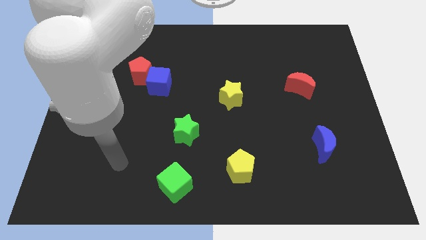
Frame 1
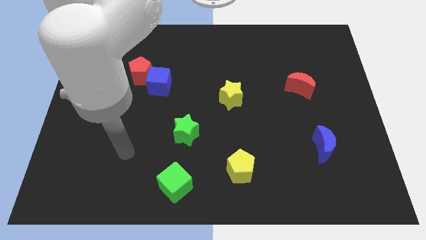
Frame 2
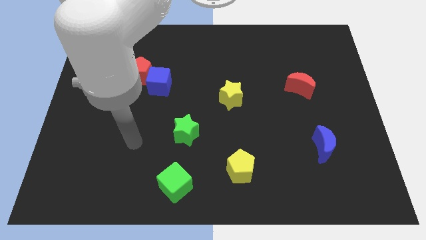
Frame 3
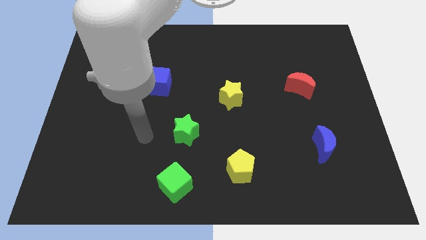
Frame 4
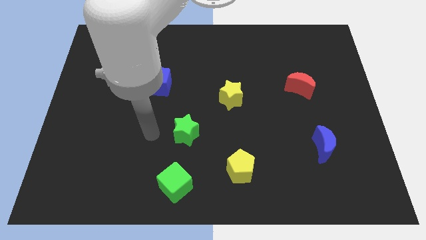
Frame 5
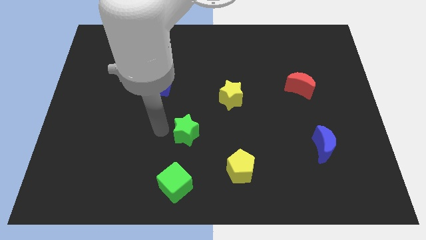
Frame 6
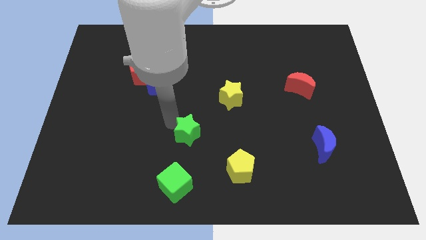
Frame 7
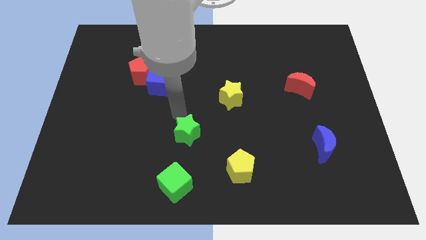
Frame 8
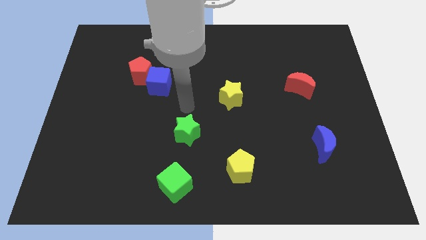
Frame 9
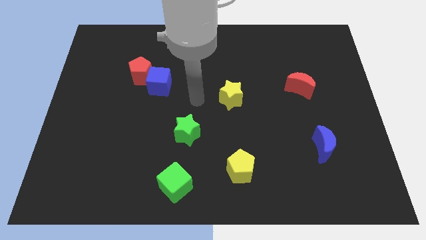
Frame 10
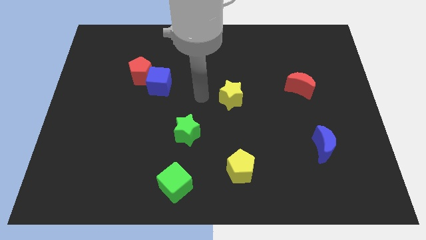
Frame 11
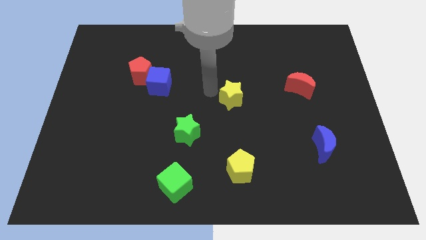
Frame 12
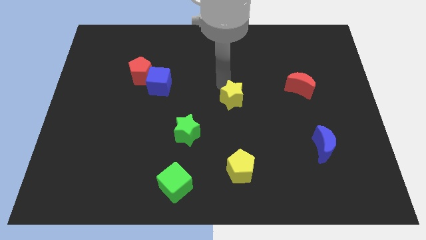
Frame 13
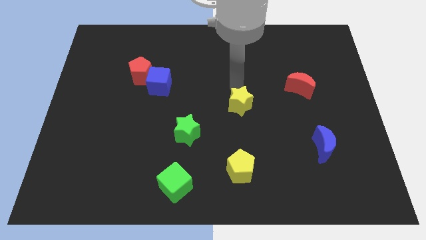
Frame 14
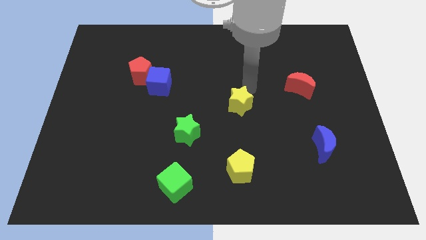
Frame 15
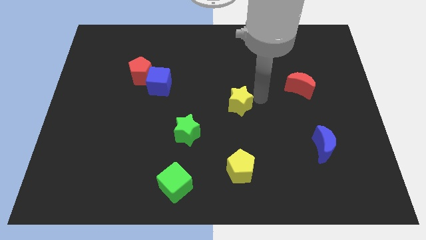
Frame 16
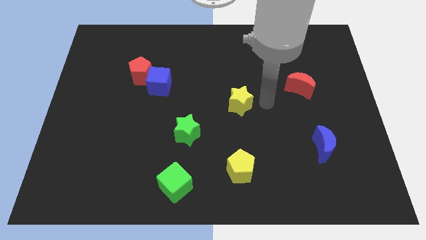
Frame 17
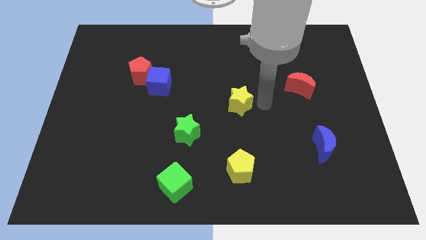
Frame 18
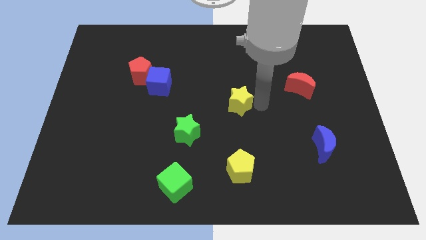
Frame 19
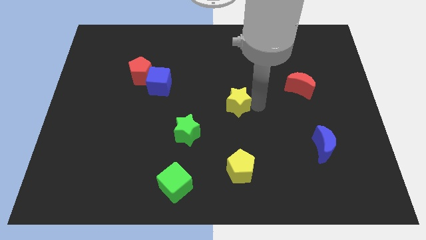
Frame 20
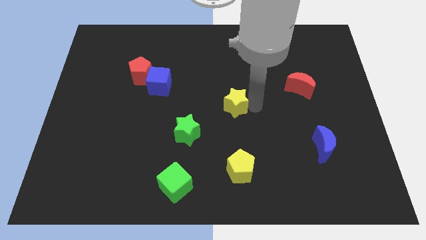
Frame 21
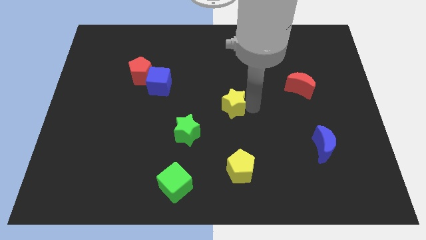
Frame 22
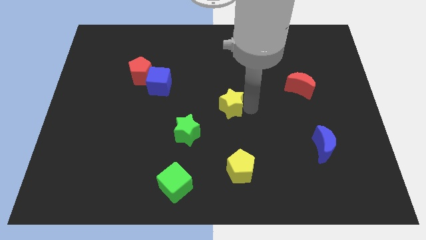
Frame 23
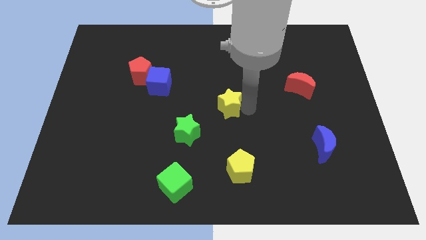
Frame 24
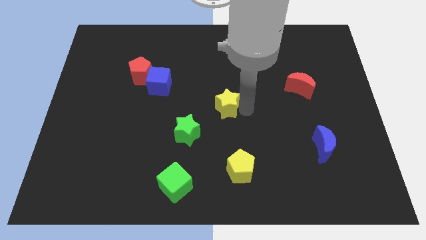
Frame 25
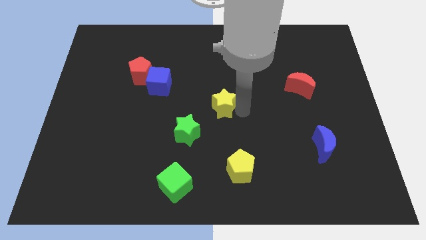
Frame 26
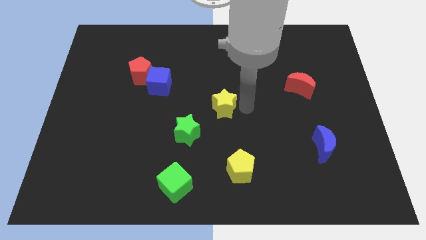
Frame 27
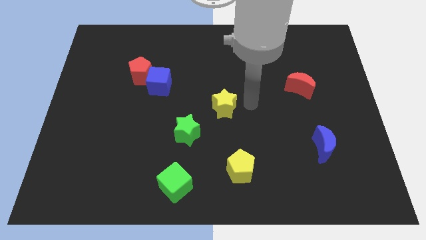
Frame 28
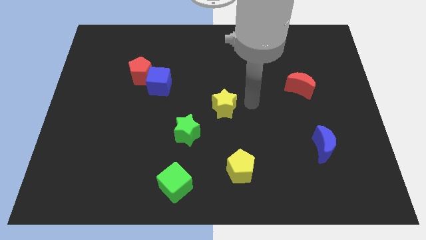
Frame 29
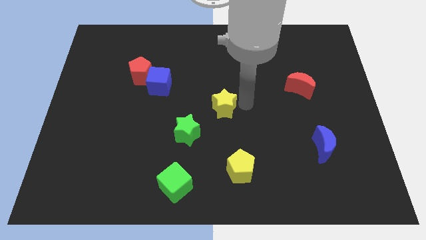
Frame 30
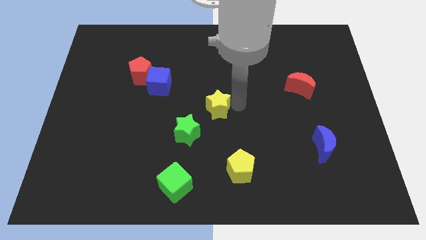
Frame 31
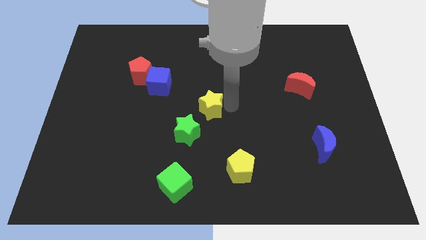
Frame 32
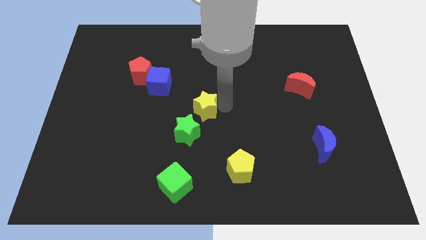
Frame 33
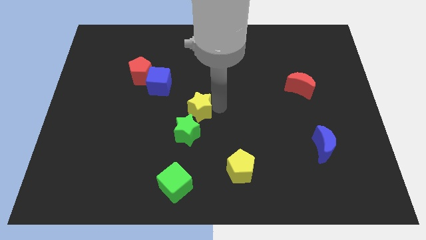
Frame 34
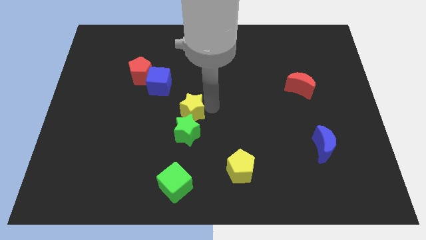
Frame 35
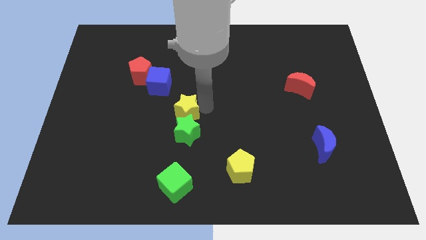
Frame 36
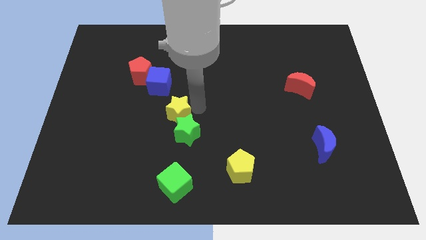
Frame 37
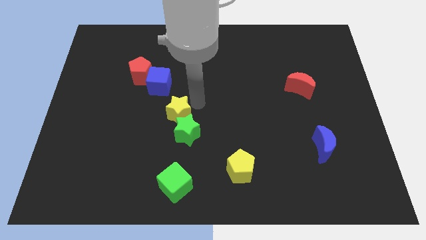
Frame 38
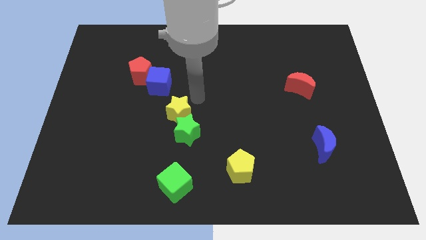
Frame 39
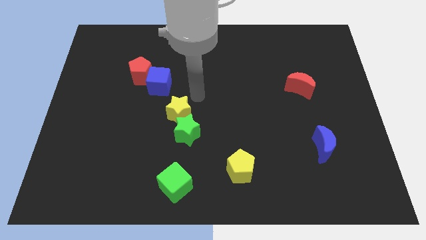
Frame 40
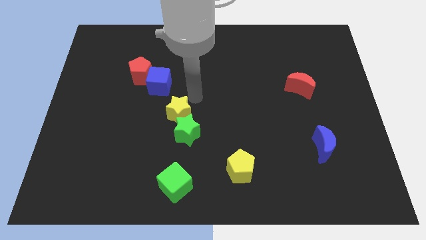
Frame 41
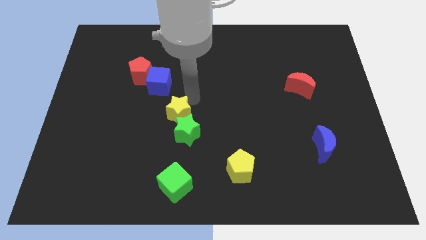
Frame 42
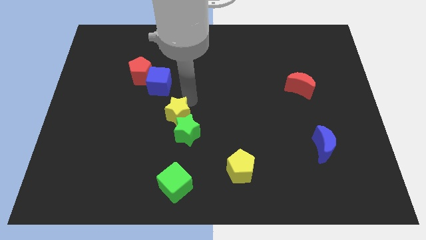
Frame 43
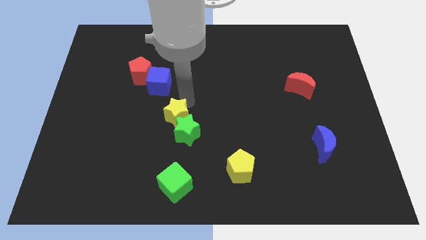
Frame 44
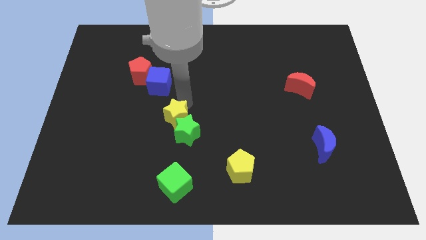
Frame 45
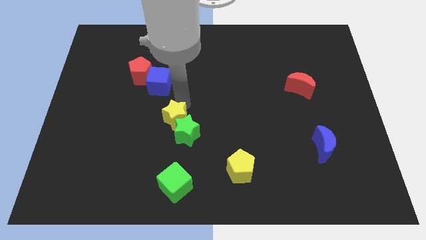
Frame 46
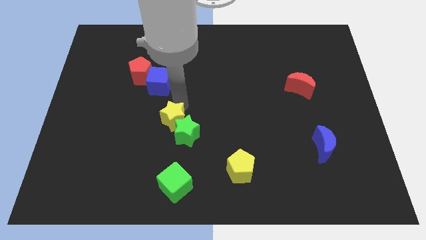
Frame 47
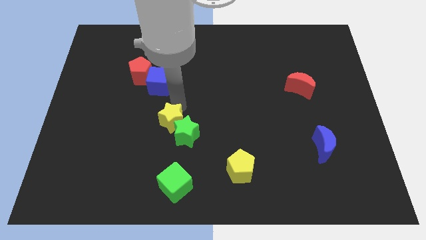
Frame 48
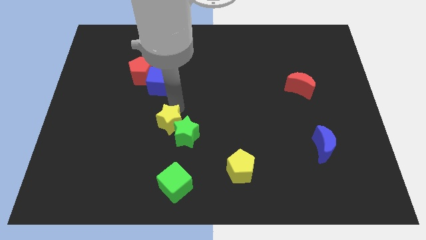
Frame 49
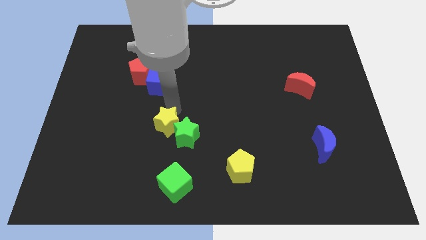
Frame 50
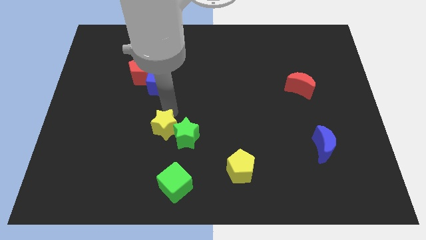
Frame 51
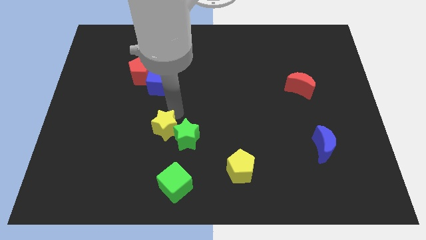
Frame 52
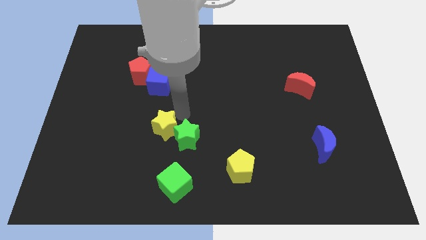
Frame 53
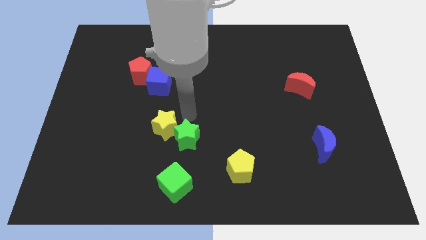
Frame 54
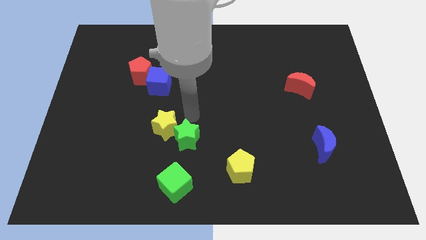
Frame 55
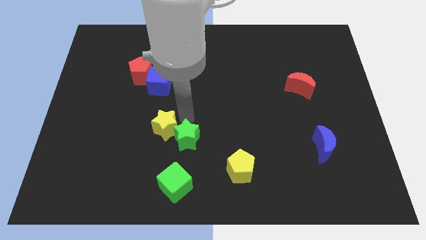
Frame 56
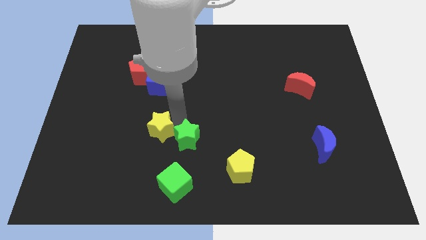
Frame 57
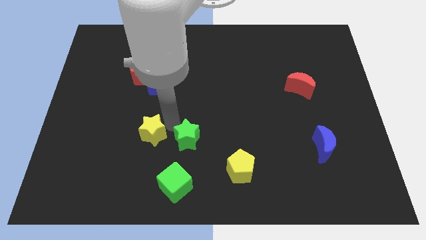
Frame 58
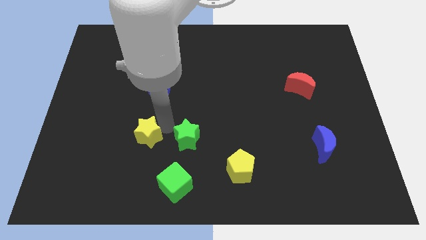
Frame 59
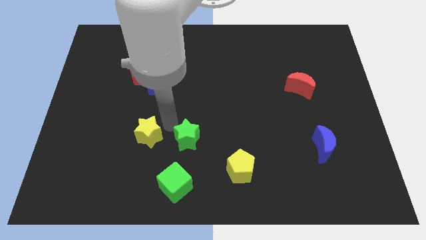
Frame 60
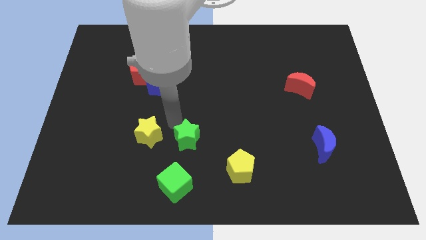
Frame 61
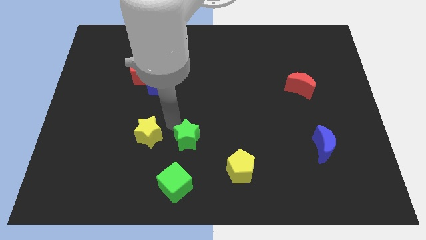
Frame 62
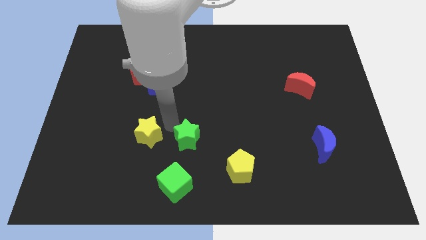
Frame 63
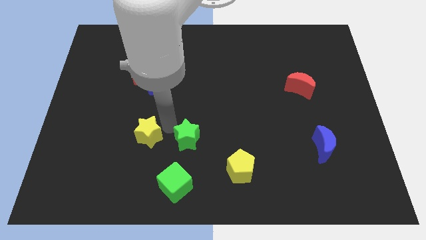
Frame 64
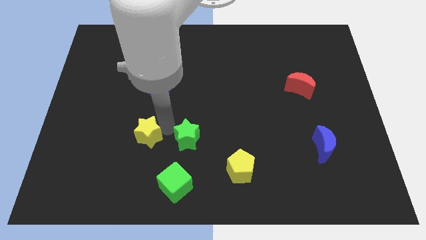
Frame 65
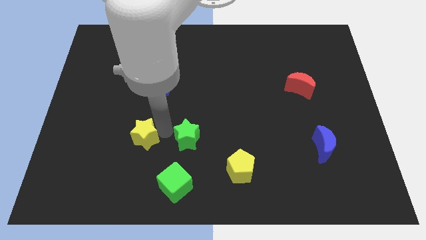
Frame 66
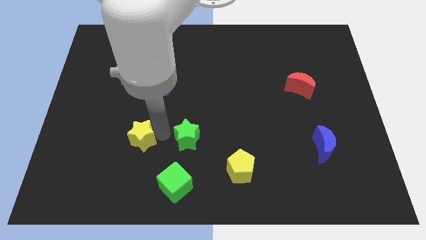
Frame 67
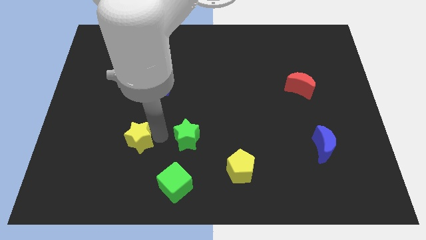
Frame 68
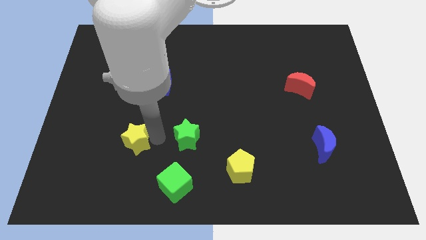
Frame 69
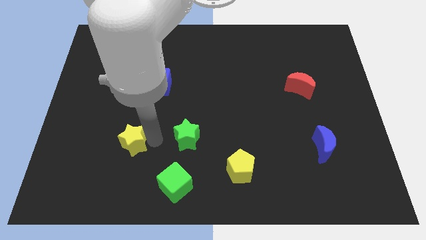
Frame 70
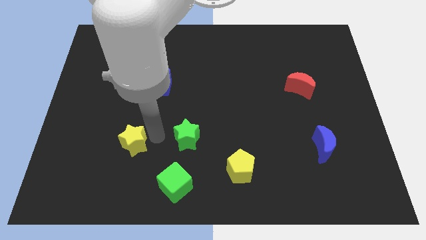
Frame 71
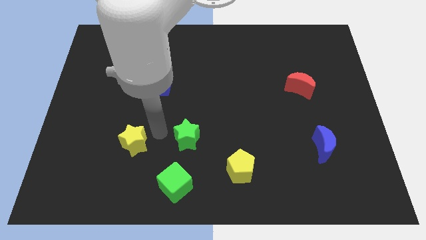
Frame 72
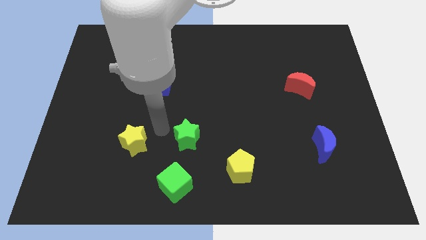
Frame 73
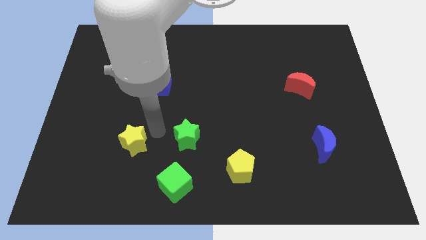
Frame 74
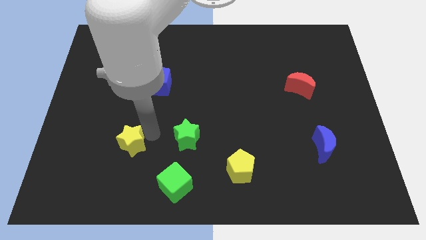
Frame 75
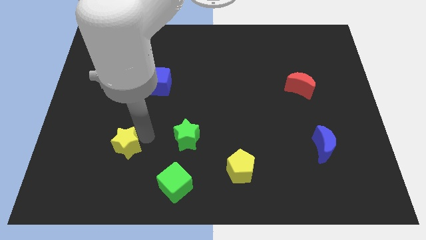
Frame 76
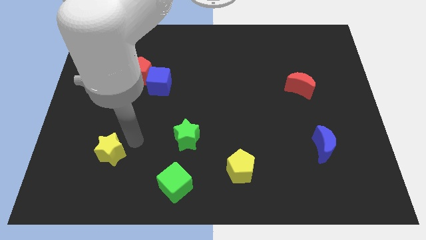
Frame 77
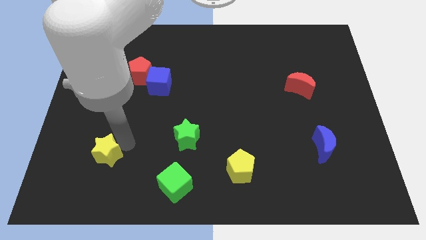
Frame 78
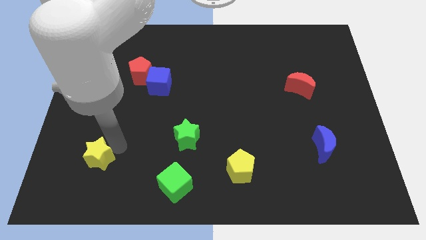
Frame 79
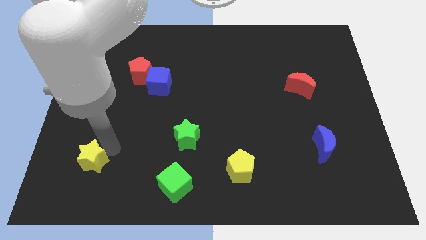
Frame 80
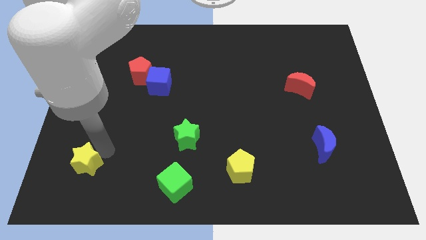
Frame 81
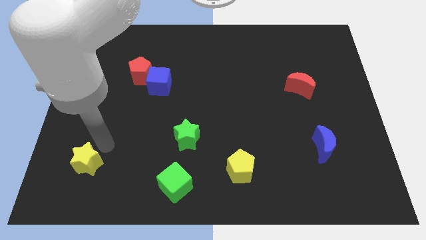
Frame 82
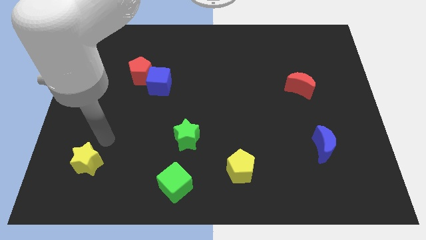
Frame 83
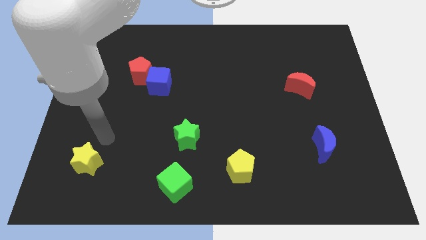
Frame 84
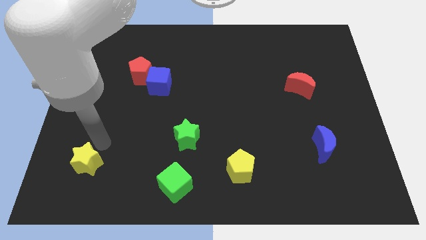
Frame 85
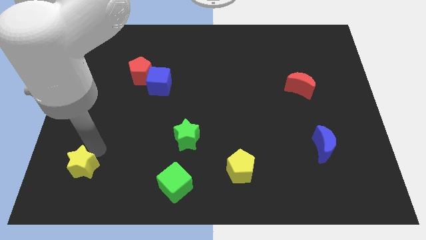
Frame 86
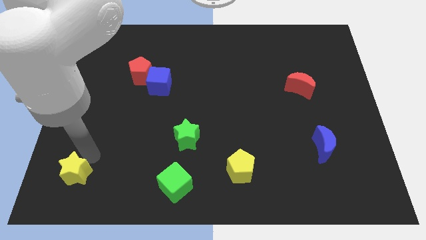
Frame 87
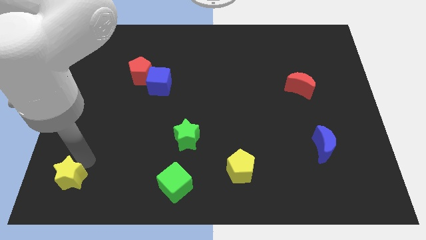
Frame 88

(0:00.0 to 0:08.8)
put the yellow star to the bottom left
